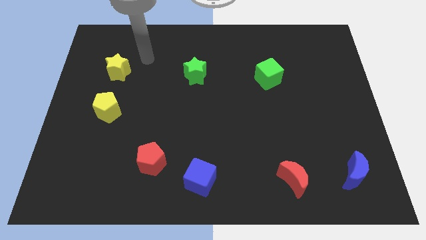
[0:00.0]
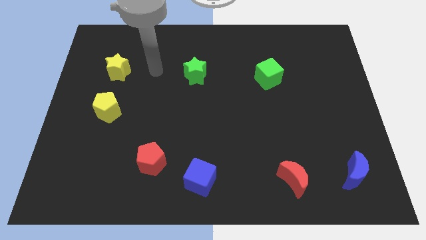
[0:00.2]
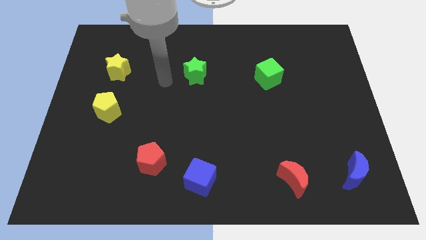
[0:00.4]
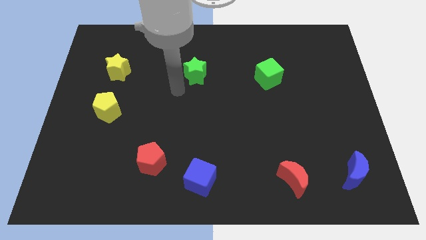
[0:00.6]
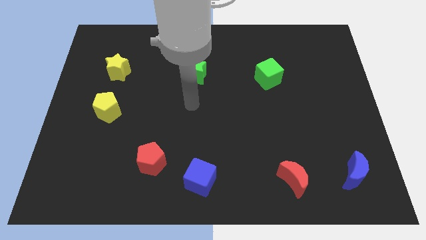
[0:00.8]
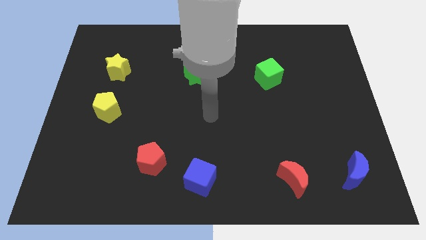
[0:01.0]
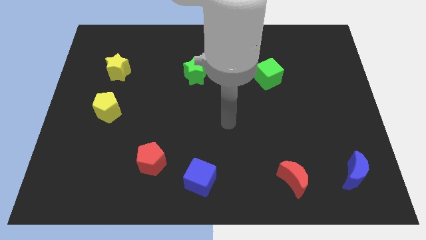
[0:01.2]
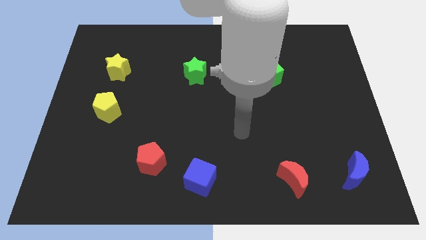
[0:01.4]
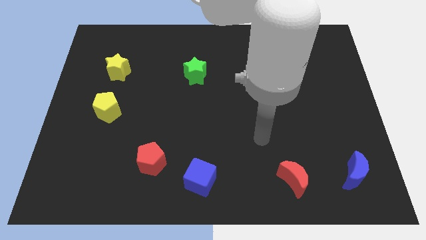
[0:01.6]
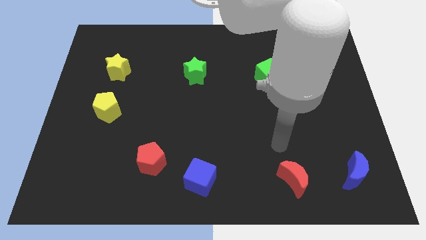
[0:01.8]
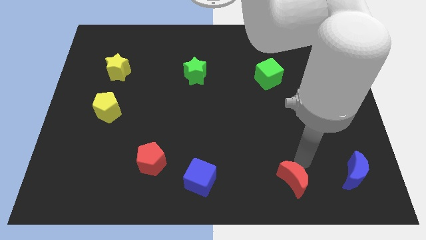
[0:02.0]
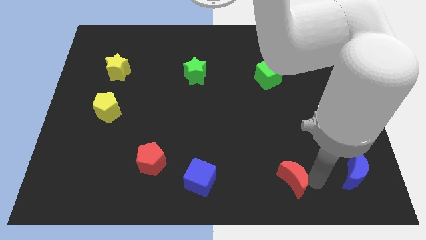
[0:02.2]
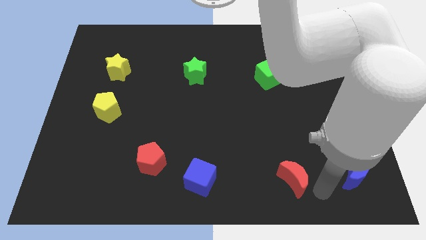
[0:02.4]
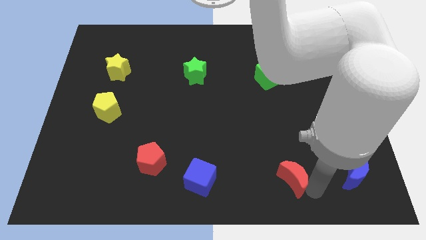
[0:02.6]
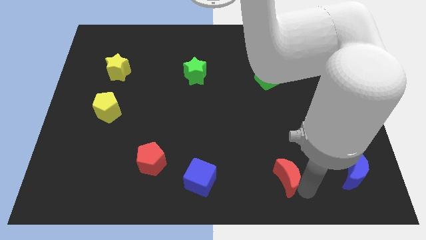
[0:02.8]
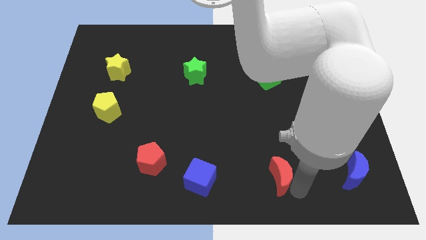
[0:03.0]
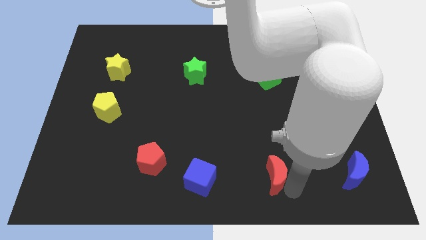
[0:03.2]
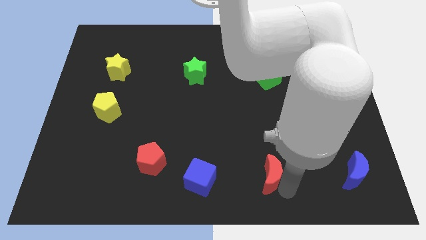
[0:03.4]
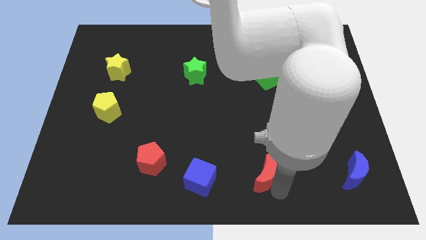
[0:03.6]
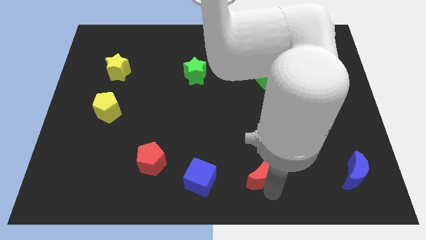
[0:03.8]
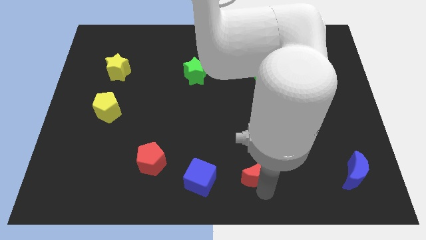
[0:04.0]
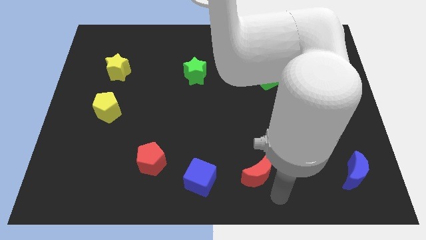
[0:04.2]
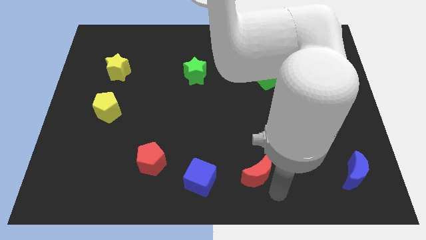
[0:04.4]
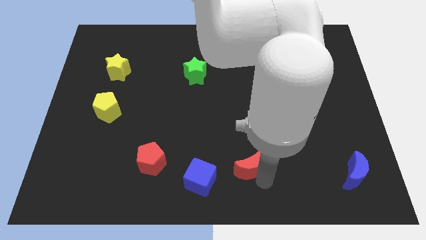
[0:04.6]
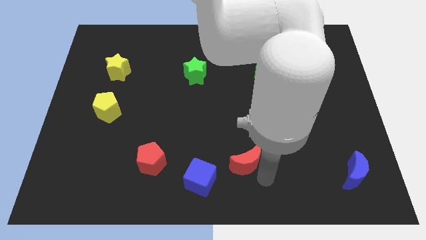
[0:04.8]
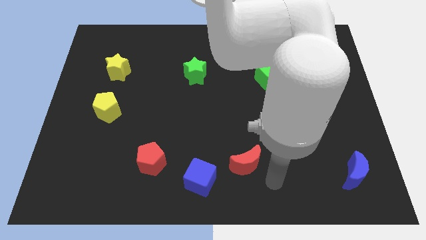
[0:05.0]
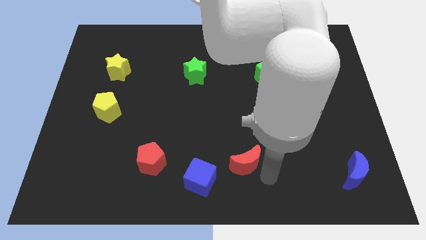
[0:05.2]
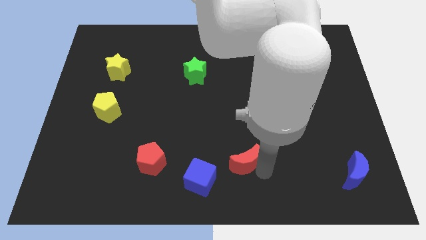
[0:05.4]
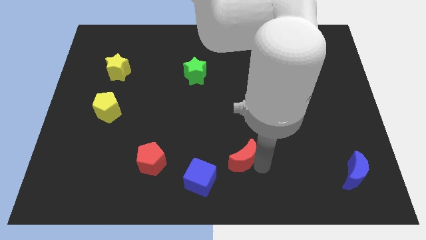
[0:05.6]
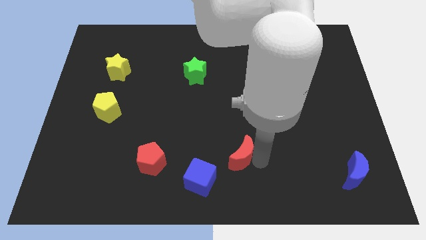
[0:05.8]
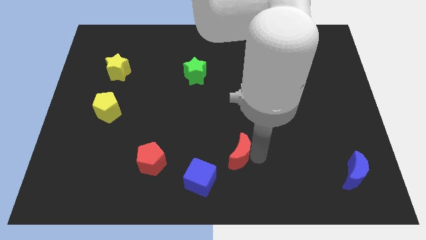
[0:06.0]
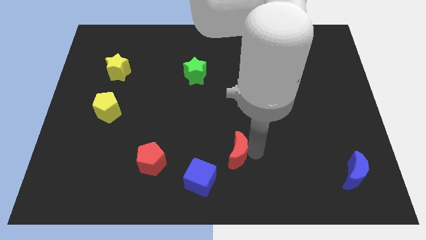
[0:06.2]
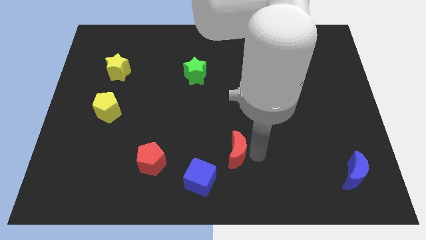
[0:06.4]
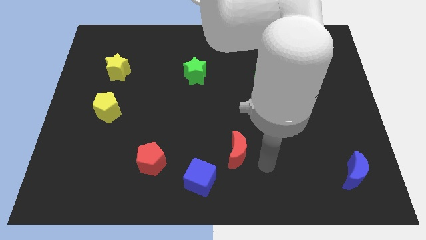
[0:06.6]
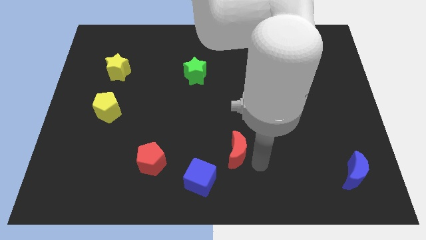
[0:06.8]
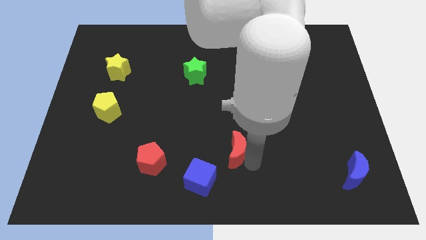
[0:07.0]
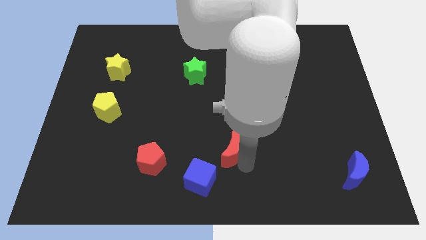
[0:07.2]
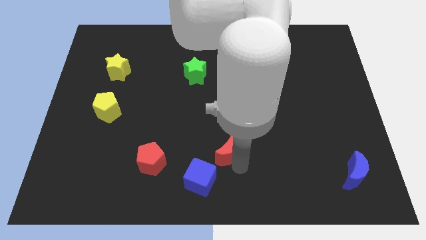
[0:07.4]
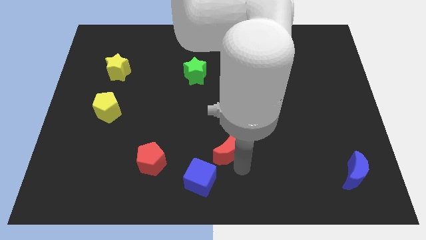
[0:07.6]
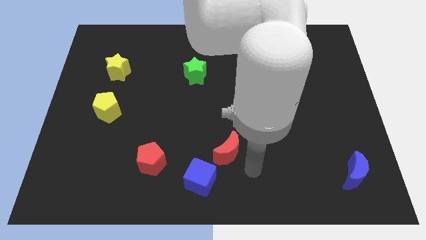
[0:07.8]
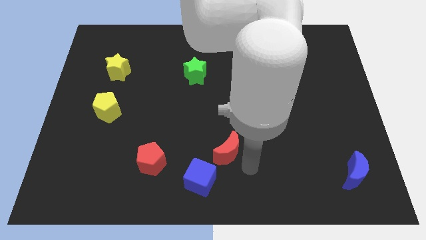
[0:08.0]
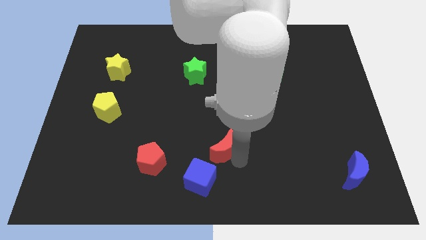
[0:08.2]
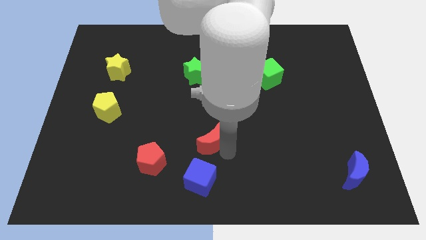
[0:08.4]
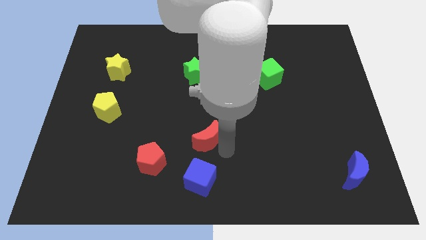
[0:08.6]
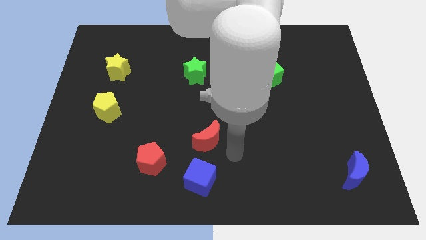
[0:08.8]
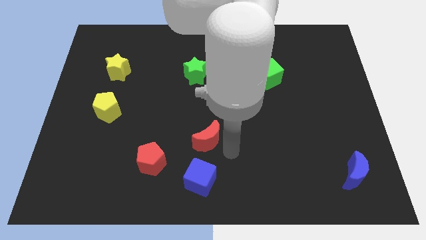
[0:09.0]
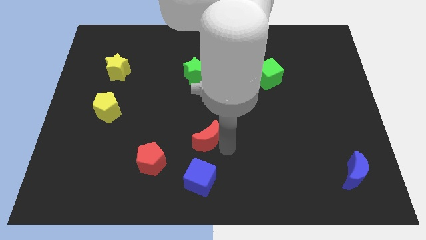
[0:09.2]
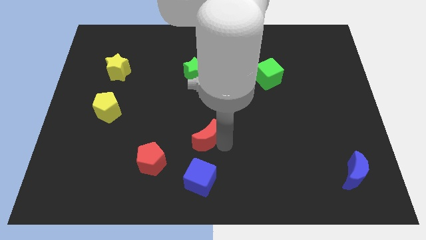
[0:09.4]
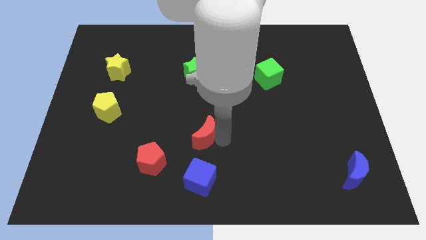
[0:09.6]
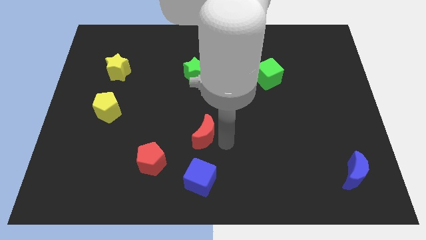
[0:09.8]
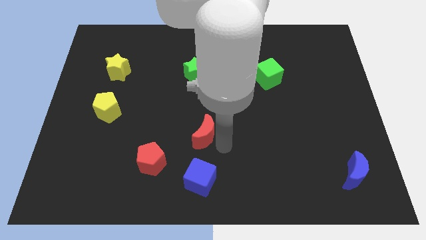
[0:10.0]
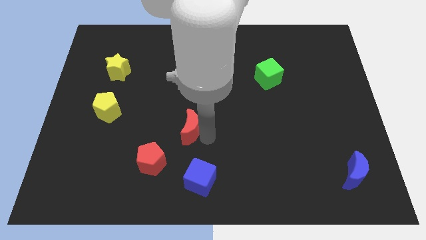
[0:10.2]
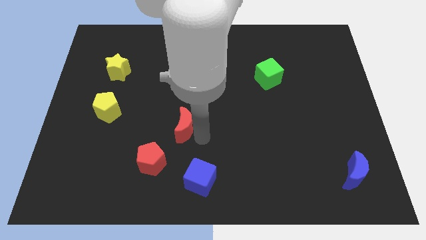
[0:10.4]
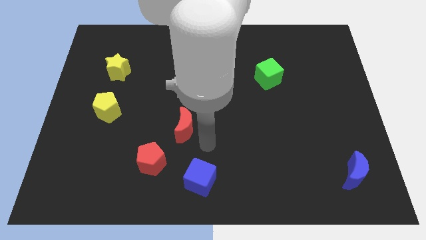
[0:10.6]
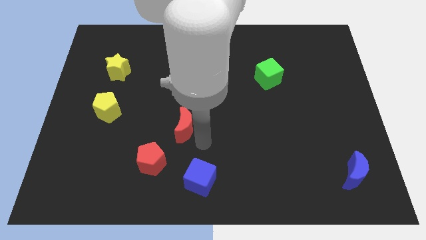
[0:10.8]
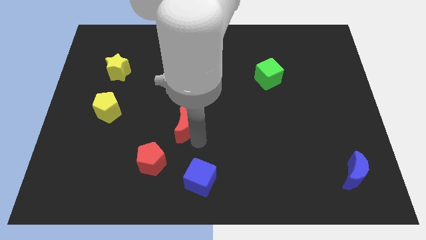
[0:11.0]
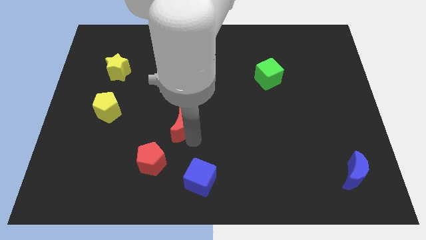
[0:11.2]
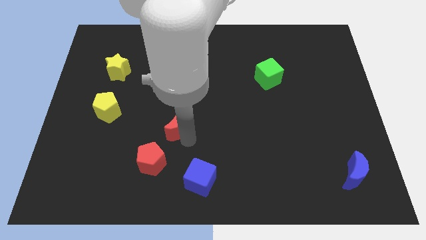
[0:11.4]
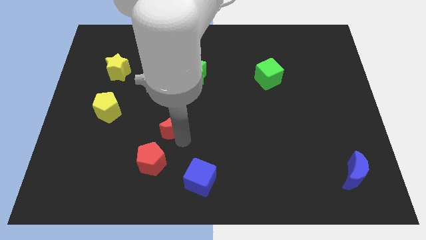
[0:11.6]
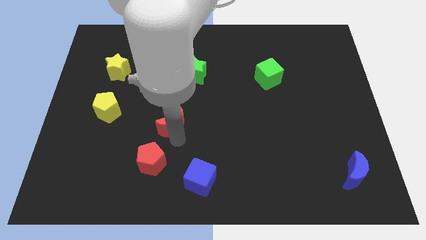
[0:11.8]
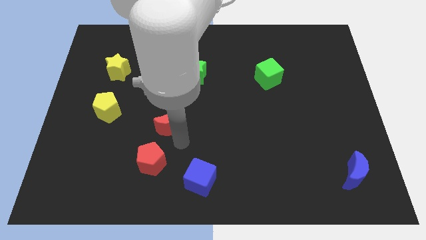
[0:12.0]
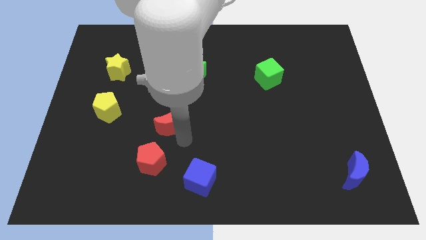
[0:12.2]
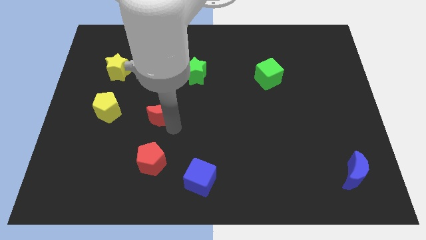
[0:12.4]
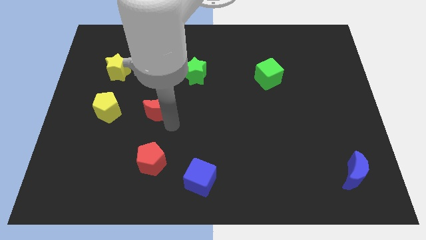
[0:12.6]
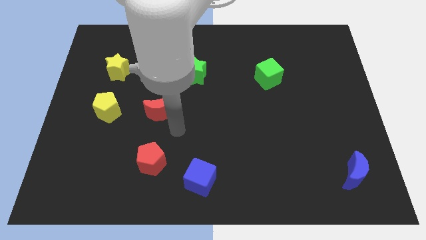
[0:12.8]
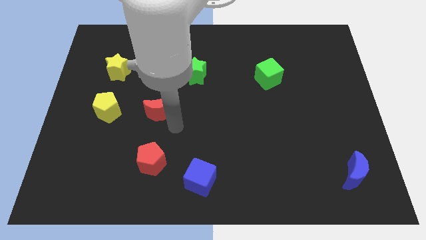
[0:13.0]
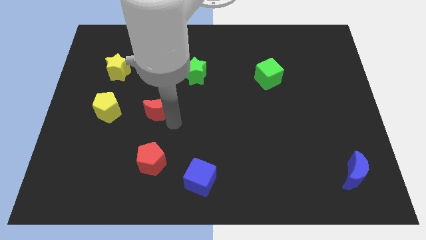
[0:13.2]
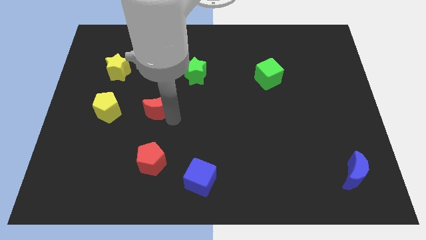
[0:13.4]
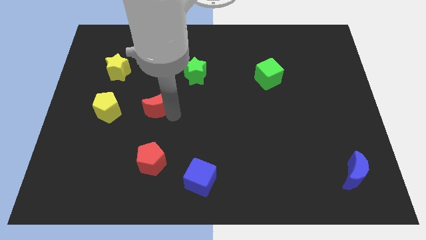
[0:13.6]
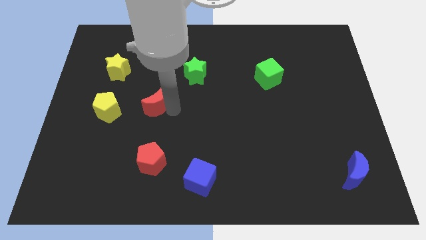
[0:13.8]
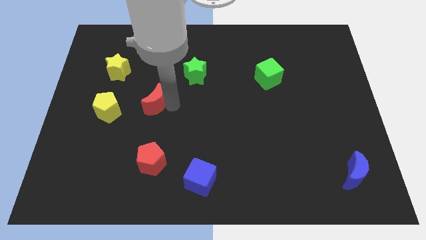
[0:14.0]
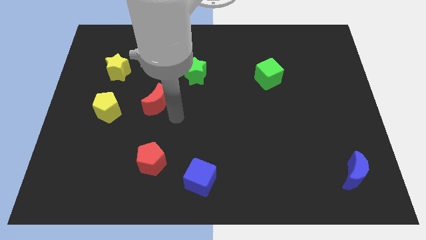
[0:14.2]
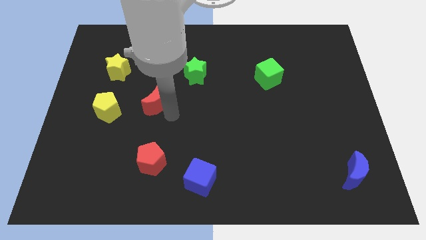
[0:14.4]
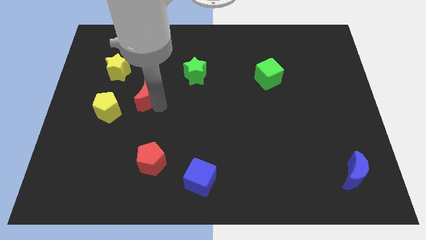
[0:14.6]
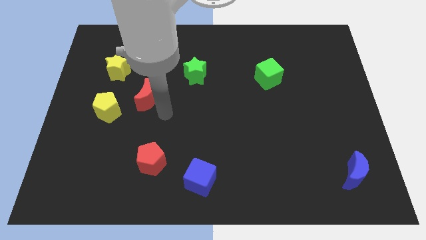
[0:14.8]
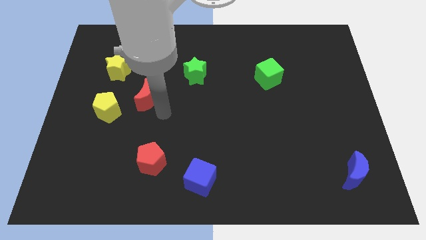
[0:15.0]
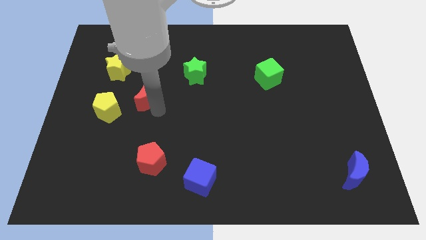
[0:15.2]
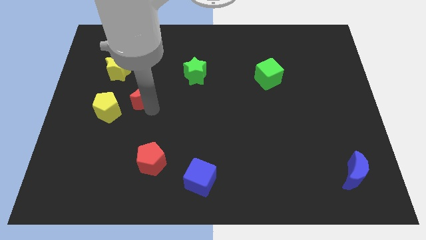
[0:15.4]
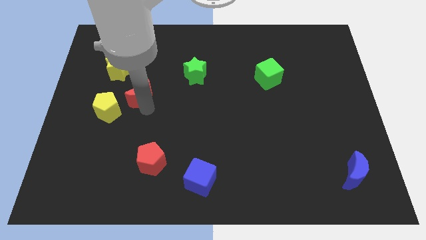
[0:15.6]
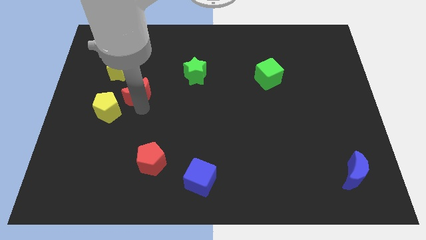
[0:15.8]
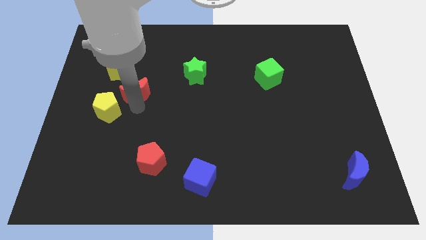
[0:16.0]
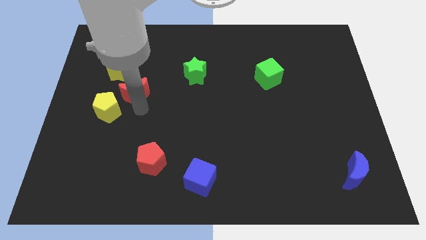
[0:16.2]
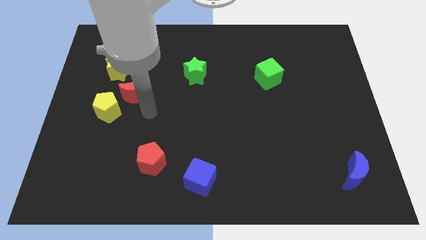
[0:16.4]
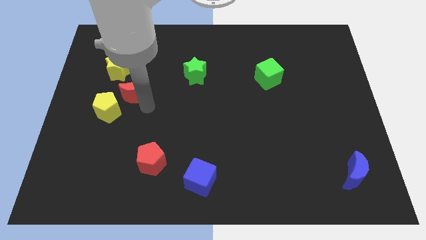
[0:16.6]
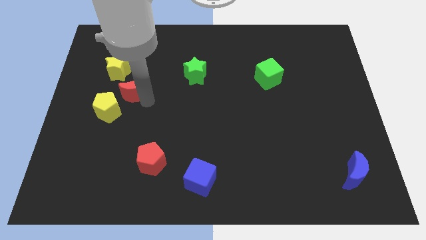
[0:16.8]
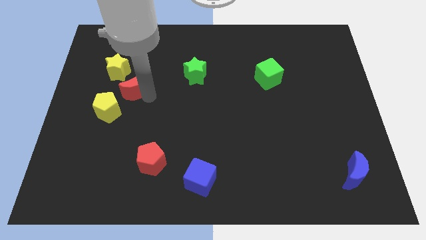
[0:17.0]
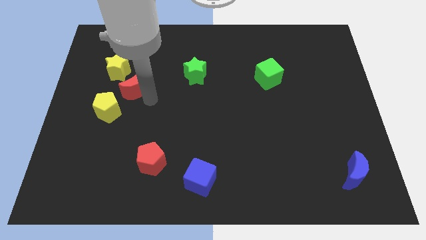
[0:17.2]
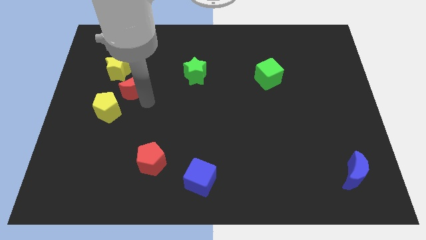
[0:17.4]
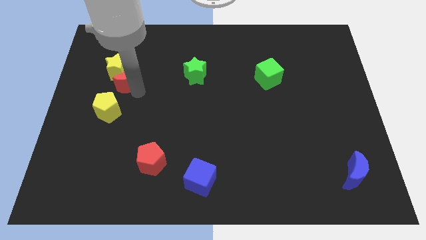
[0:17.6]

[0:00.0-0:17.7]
push the red moon next to the yellow star
